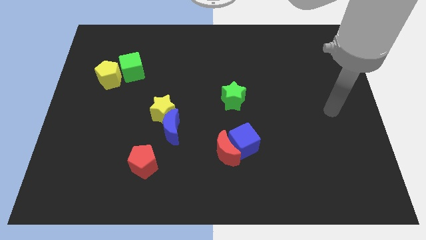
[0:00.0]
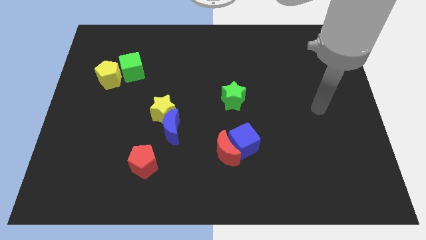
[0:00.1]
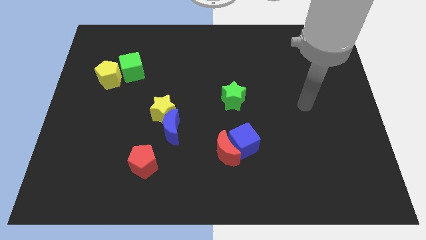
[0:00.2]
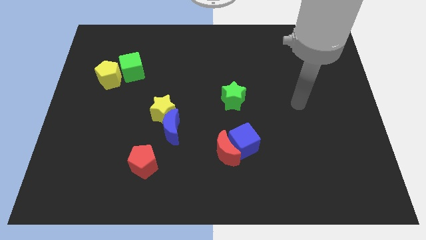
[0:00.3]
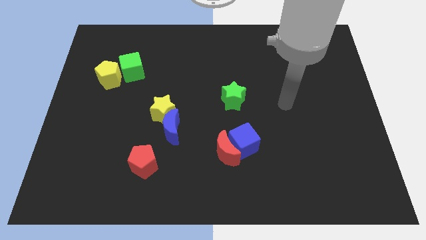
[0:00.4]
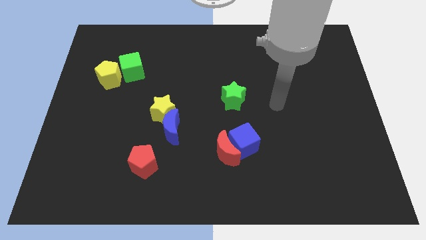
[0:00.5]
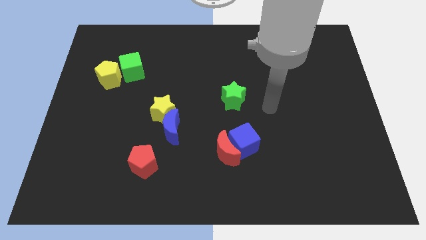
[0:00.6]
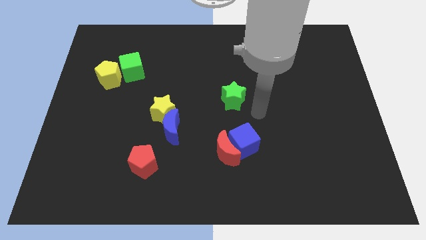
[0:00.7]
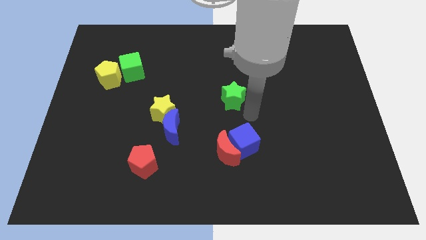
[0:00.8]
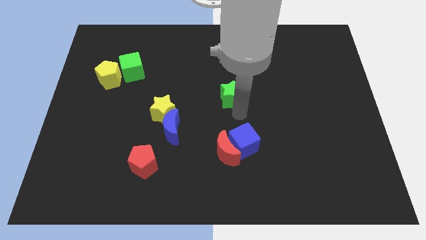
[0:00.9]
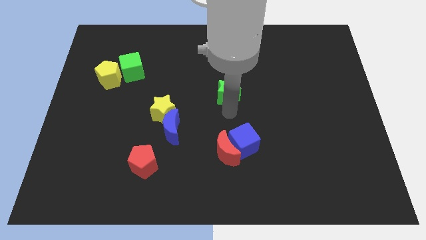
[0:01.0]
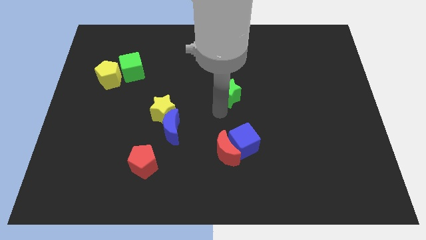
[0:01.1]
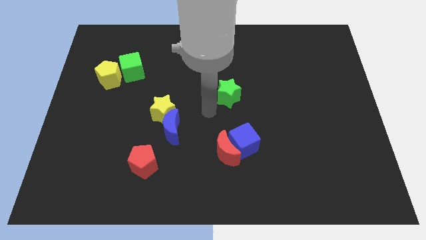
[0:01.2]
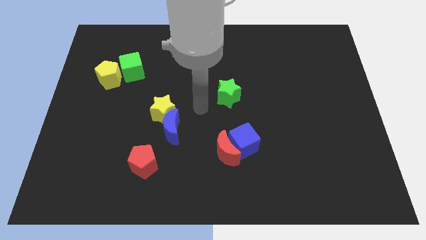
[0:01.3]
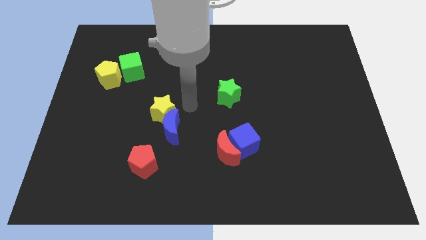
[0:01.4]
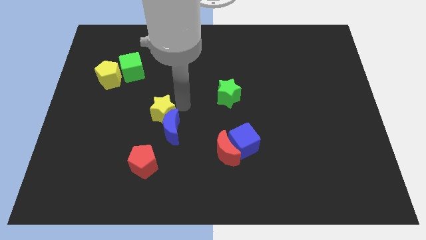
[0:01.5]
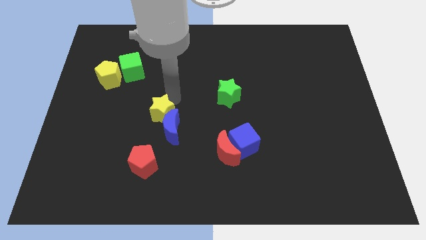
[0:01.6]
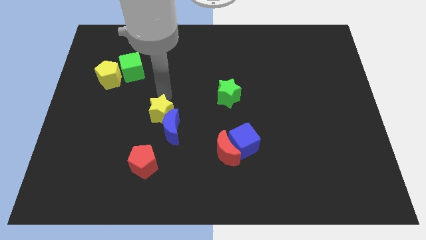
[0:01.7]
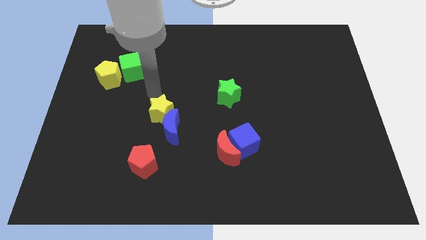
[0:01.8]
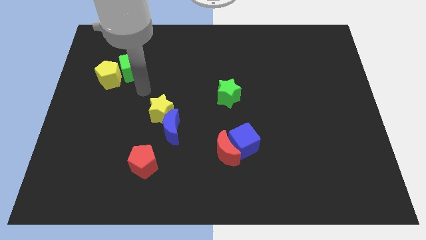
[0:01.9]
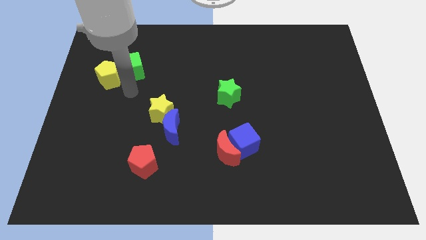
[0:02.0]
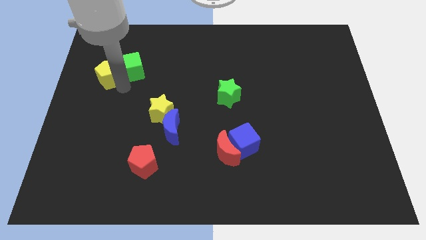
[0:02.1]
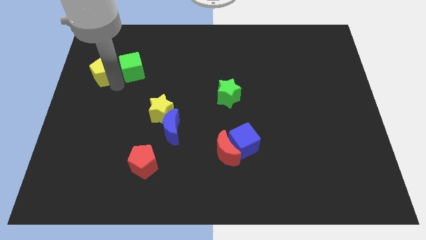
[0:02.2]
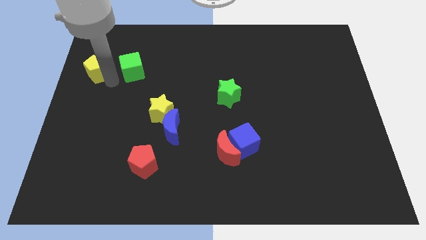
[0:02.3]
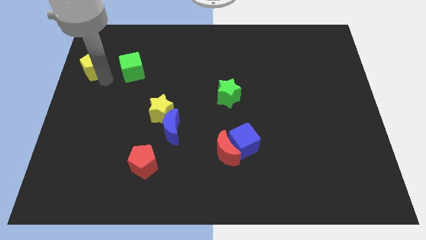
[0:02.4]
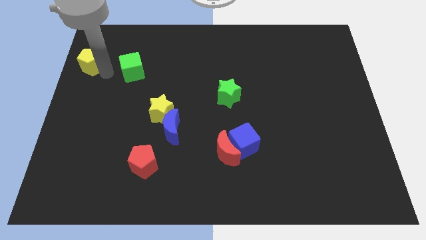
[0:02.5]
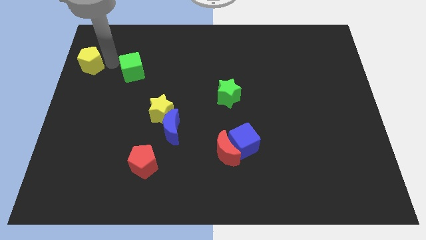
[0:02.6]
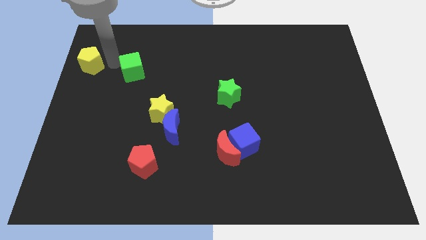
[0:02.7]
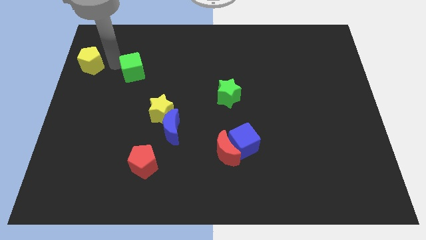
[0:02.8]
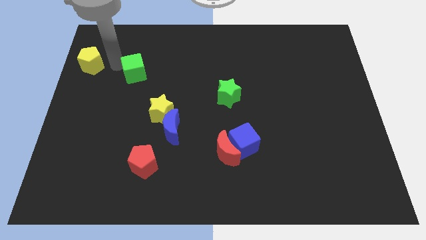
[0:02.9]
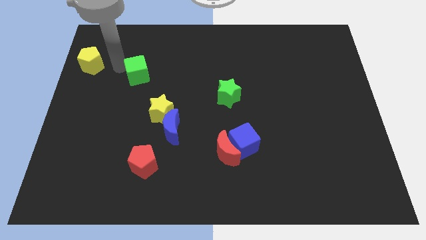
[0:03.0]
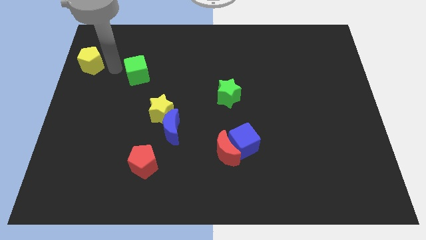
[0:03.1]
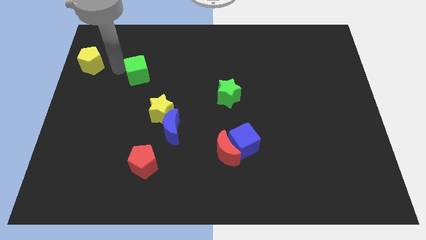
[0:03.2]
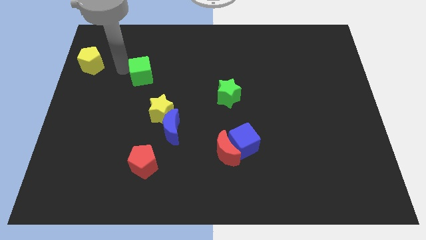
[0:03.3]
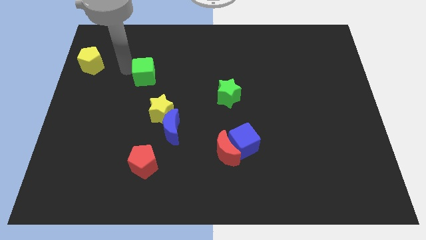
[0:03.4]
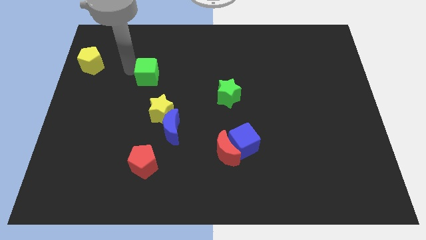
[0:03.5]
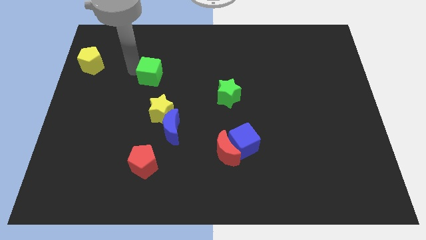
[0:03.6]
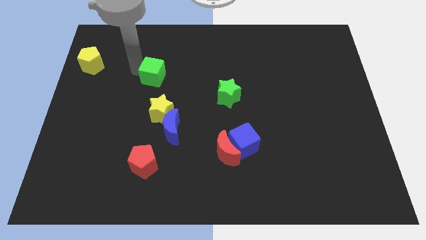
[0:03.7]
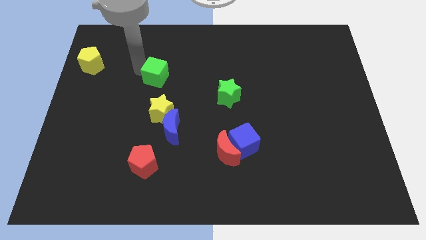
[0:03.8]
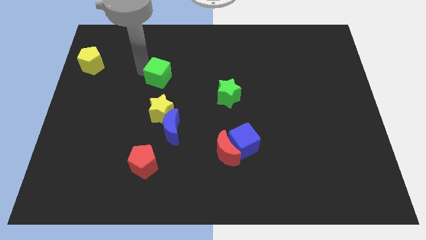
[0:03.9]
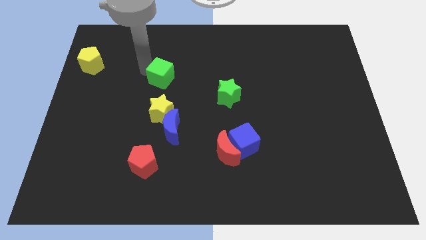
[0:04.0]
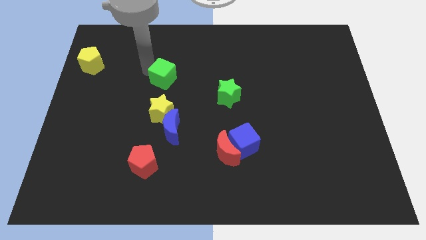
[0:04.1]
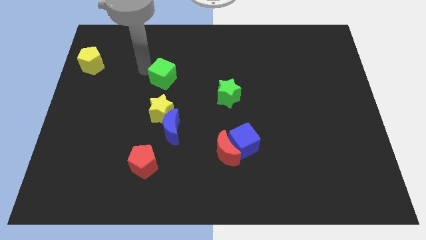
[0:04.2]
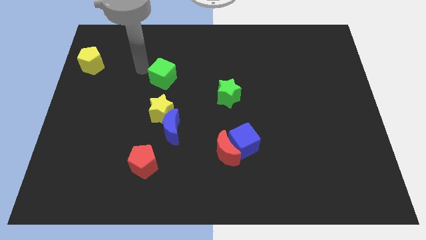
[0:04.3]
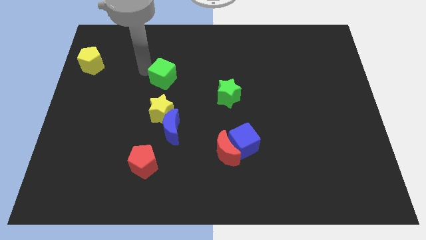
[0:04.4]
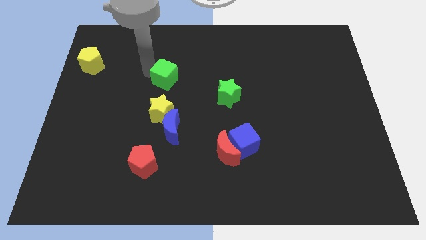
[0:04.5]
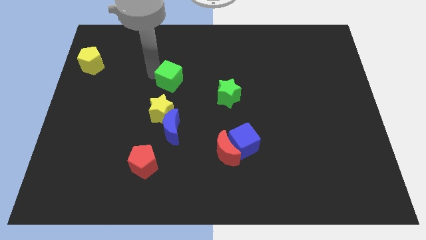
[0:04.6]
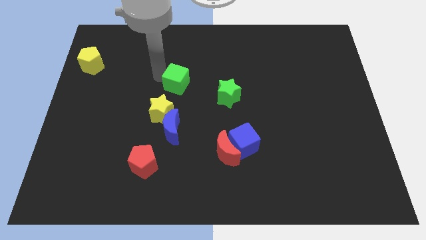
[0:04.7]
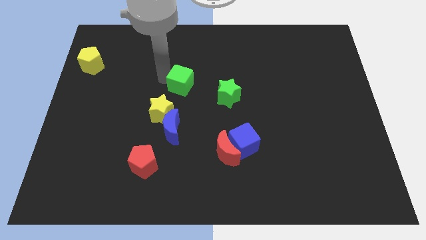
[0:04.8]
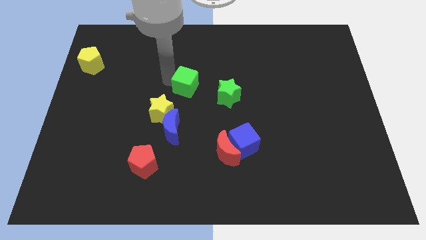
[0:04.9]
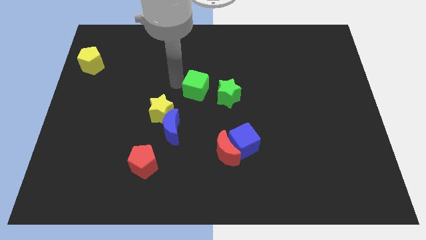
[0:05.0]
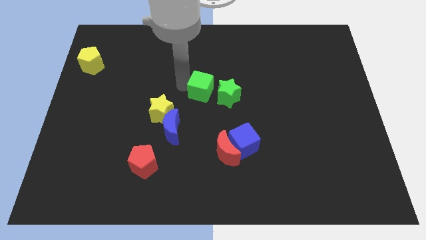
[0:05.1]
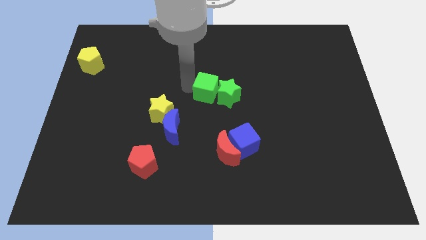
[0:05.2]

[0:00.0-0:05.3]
move the green cube to the green star

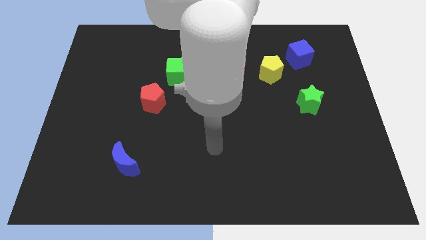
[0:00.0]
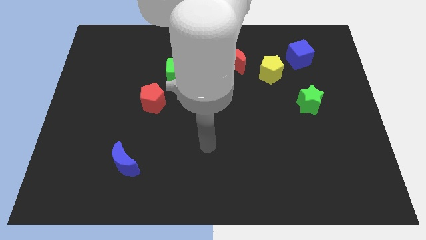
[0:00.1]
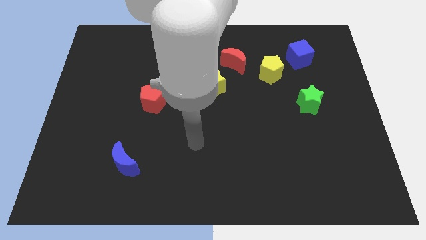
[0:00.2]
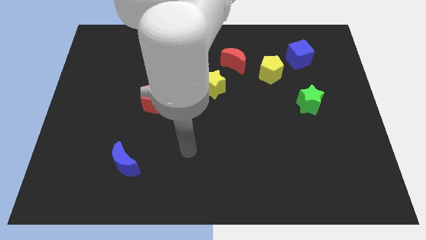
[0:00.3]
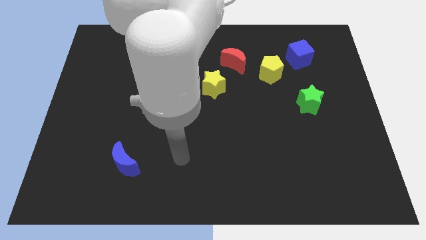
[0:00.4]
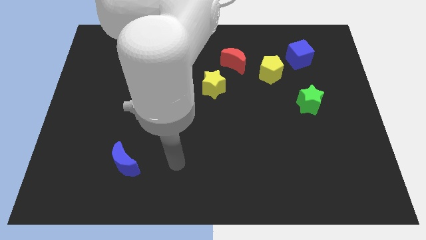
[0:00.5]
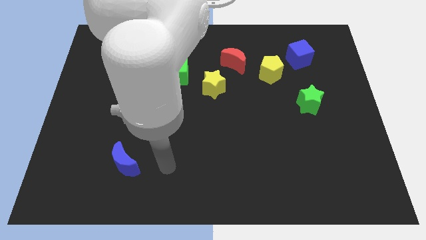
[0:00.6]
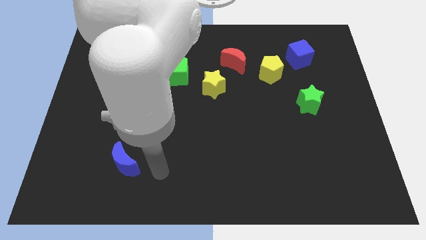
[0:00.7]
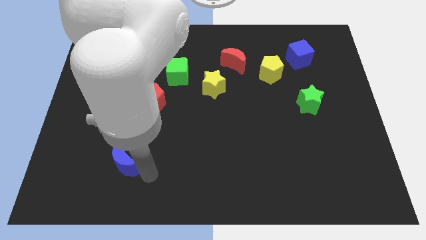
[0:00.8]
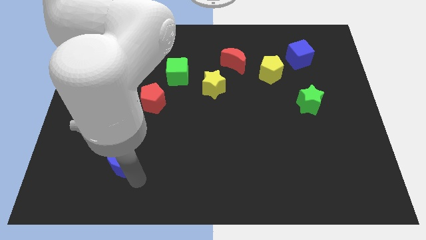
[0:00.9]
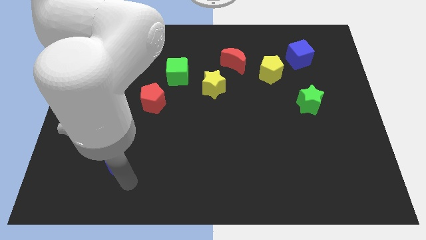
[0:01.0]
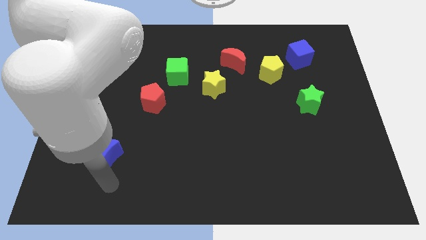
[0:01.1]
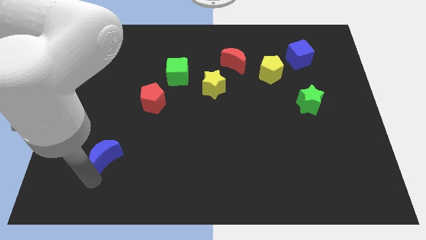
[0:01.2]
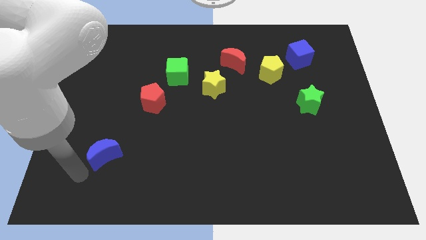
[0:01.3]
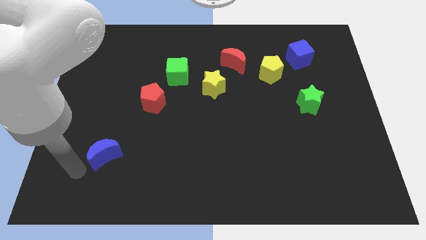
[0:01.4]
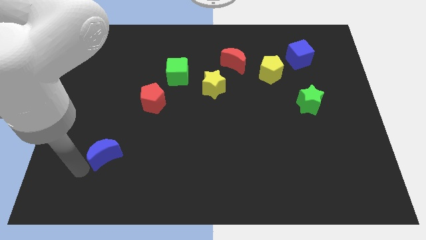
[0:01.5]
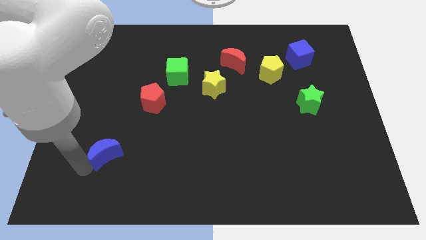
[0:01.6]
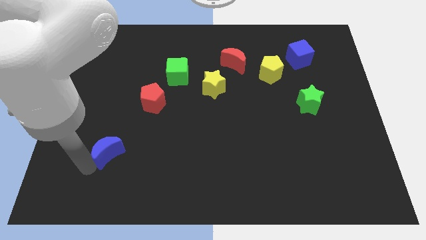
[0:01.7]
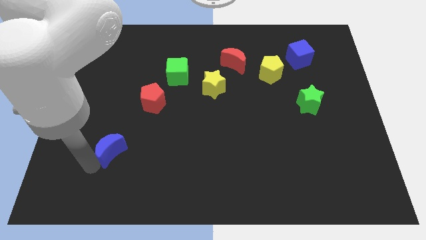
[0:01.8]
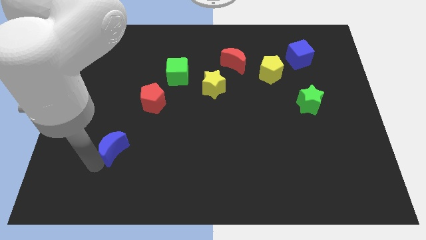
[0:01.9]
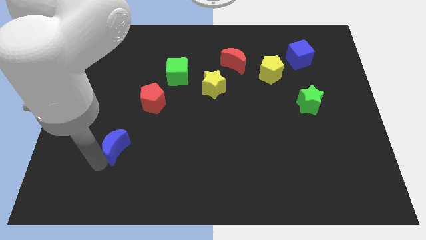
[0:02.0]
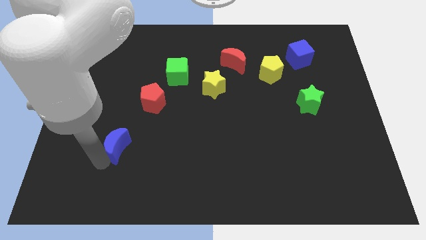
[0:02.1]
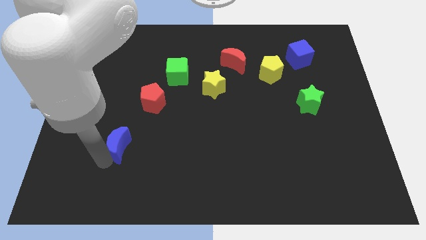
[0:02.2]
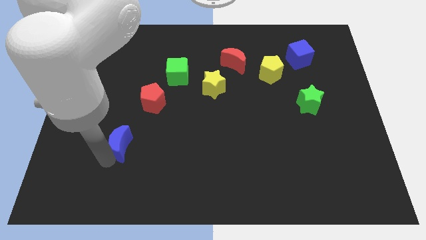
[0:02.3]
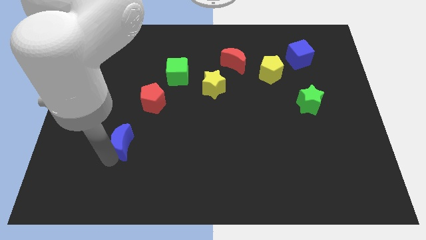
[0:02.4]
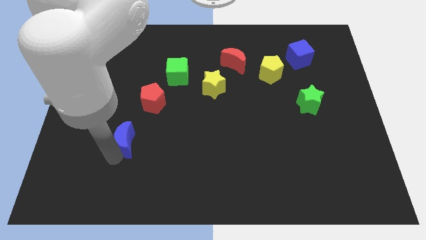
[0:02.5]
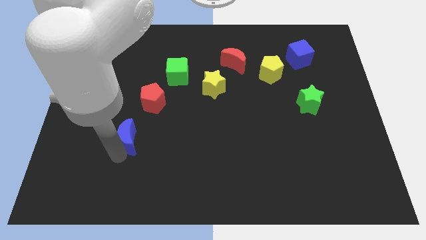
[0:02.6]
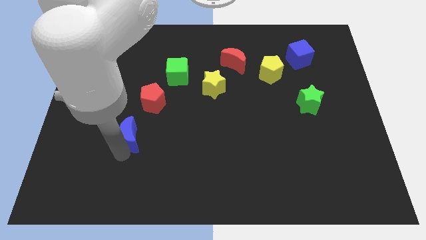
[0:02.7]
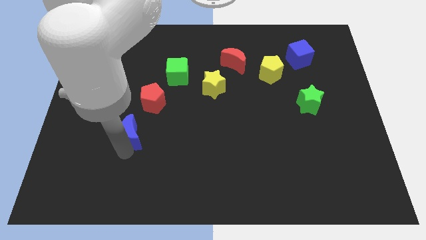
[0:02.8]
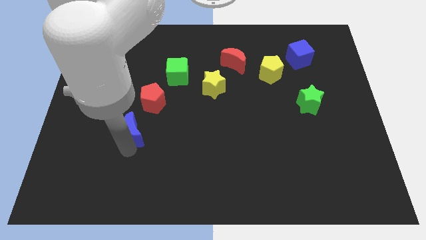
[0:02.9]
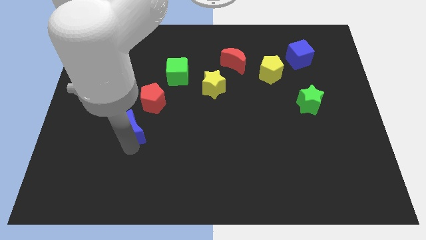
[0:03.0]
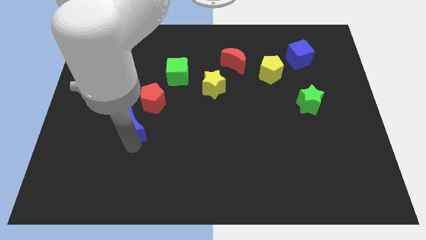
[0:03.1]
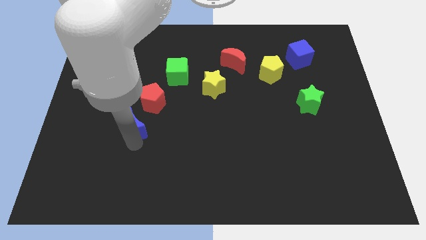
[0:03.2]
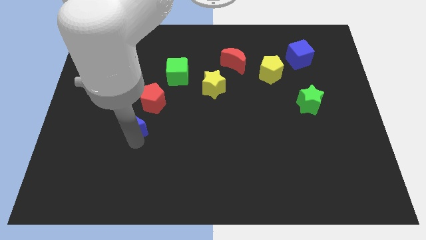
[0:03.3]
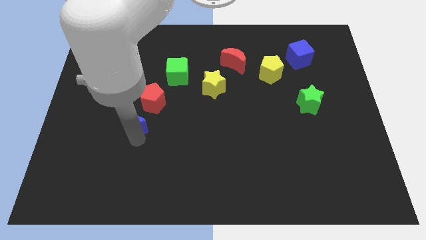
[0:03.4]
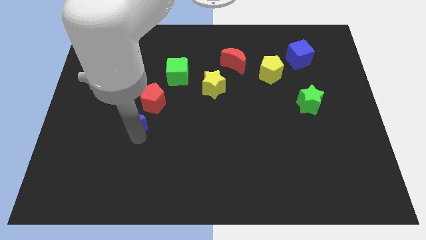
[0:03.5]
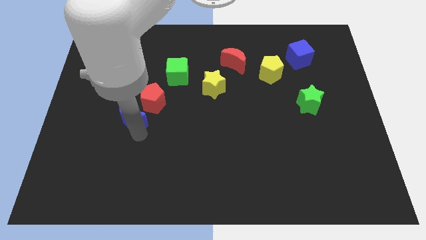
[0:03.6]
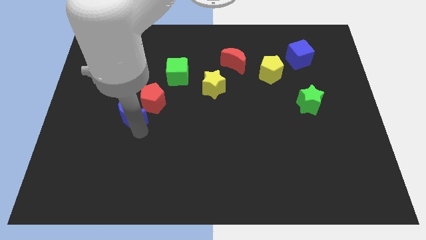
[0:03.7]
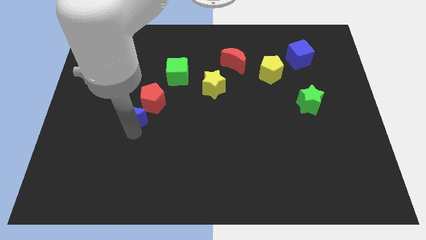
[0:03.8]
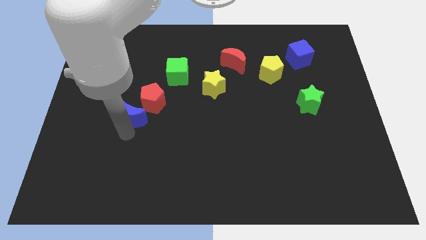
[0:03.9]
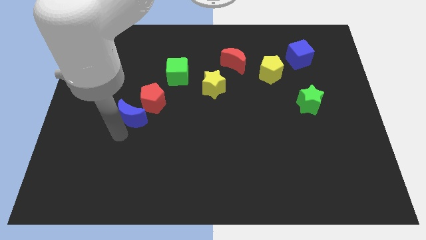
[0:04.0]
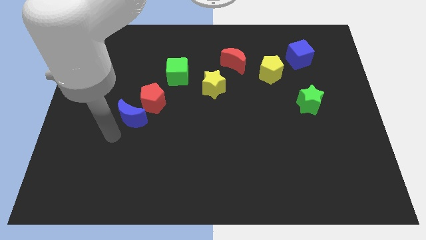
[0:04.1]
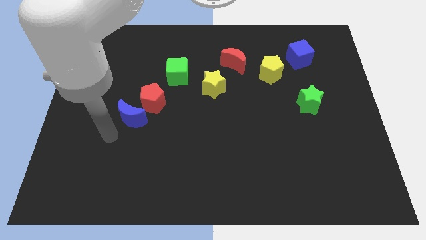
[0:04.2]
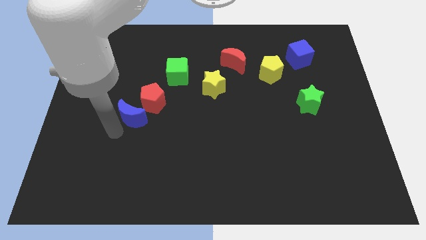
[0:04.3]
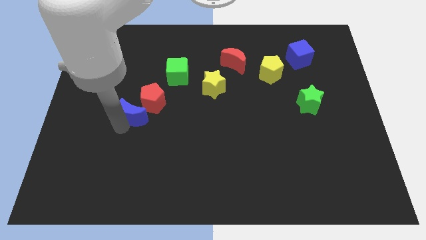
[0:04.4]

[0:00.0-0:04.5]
put the blue moon close to the red pentagon
